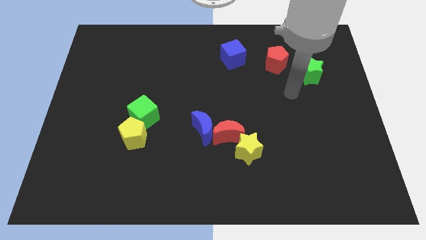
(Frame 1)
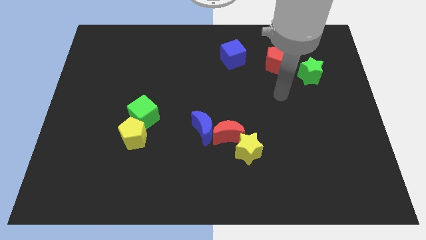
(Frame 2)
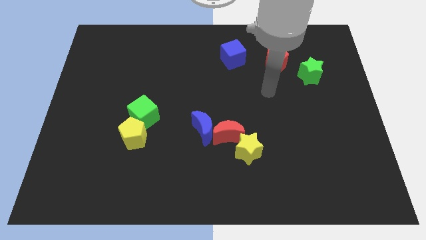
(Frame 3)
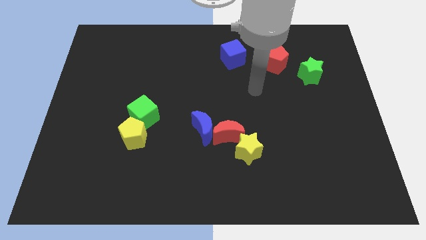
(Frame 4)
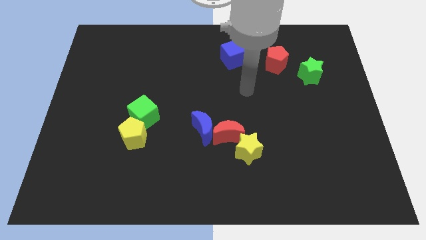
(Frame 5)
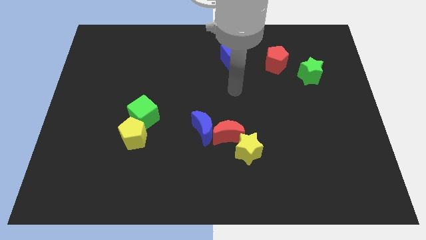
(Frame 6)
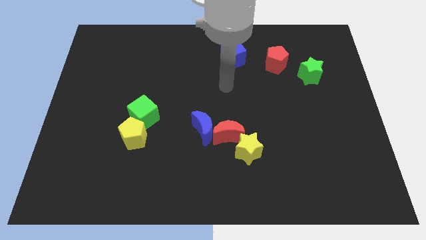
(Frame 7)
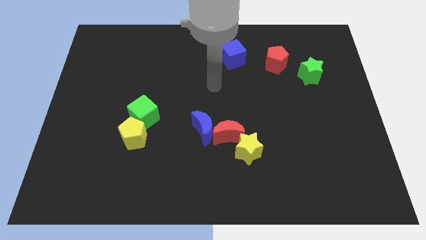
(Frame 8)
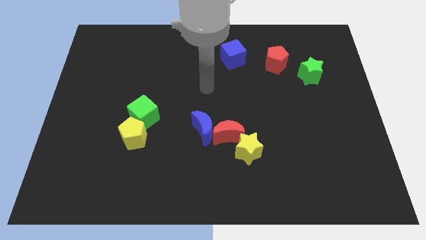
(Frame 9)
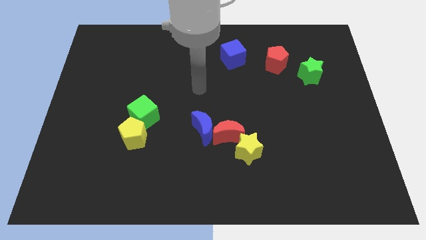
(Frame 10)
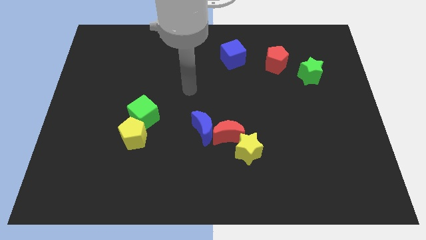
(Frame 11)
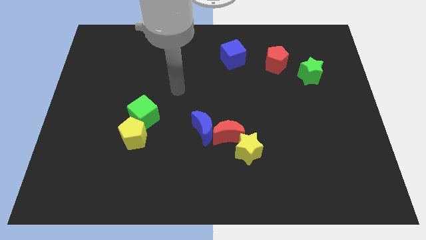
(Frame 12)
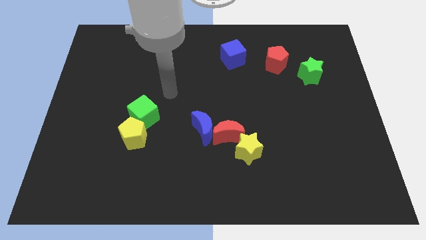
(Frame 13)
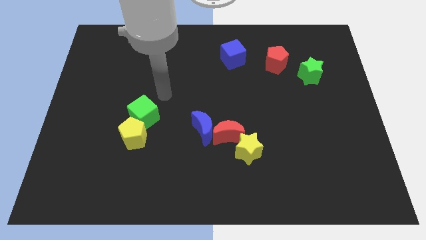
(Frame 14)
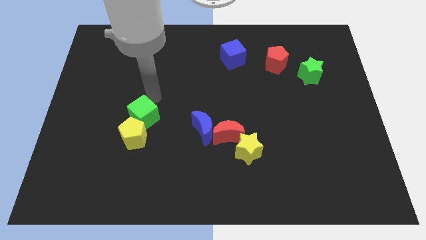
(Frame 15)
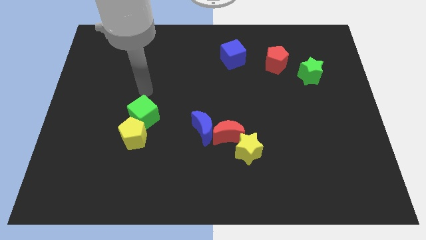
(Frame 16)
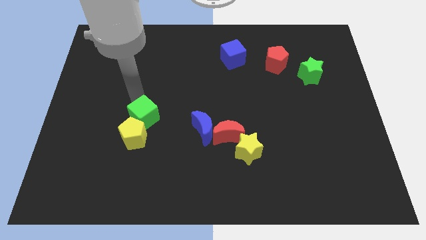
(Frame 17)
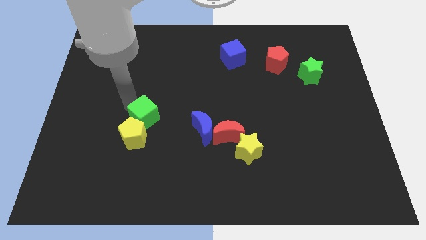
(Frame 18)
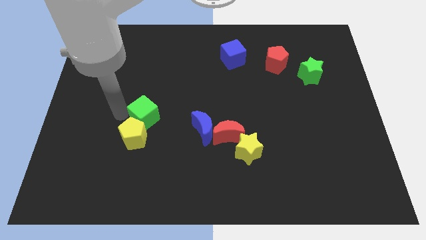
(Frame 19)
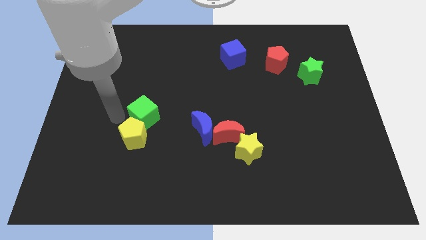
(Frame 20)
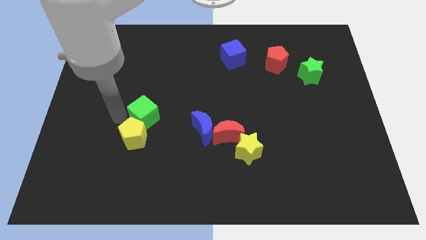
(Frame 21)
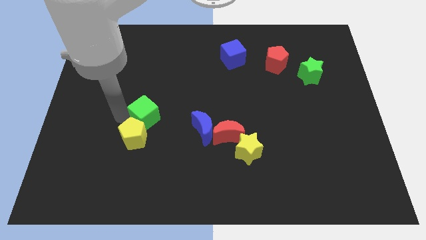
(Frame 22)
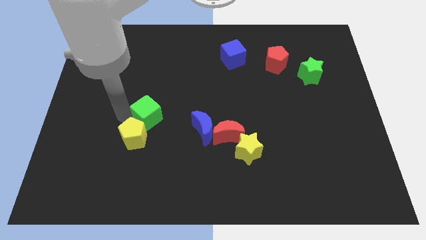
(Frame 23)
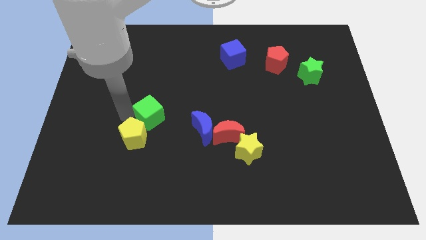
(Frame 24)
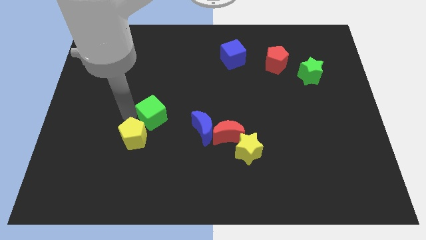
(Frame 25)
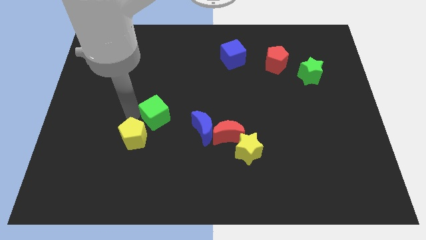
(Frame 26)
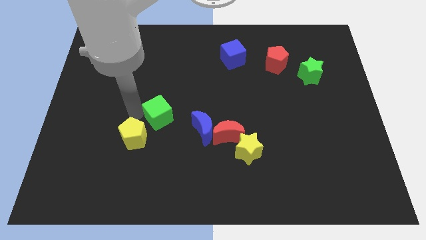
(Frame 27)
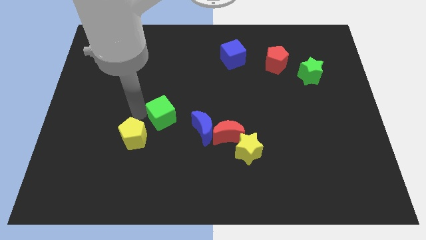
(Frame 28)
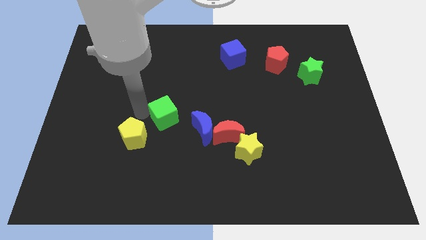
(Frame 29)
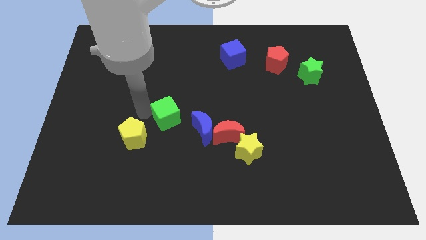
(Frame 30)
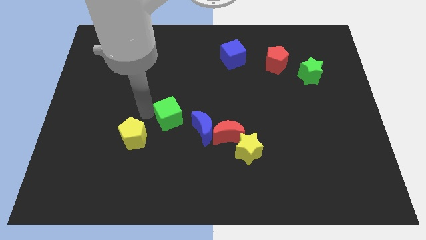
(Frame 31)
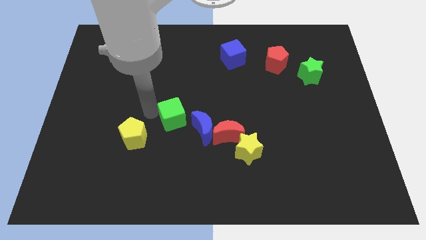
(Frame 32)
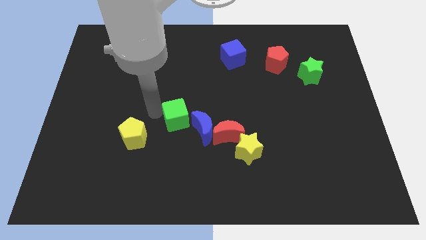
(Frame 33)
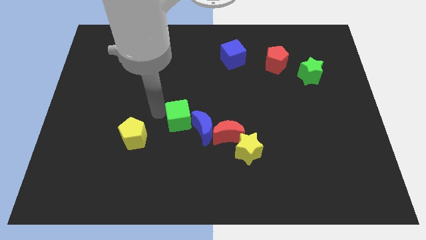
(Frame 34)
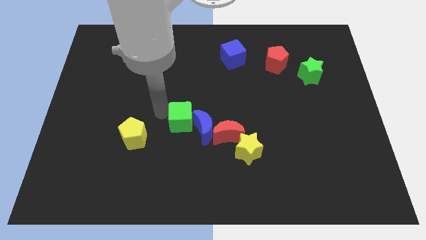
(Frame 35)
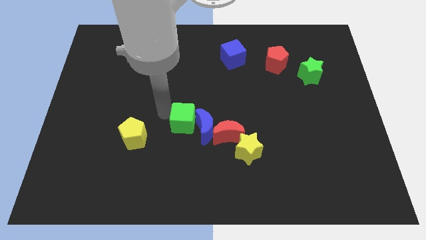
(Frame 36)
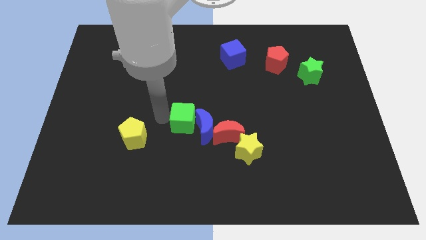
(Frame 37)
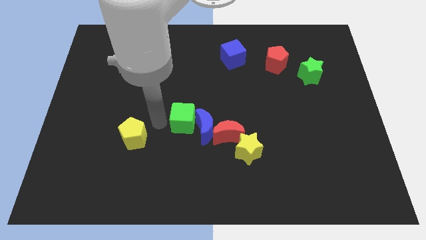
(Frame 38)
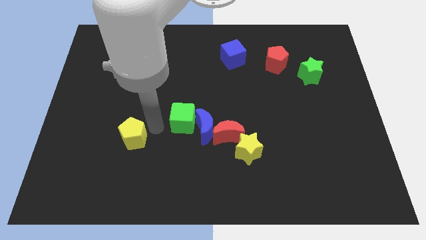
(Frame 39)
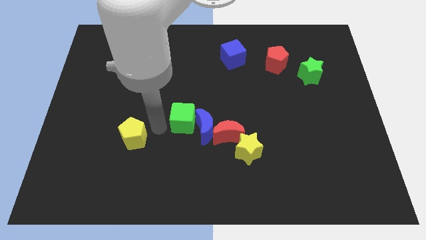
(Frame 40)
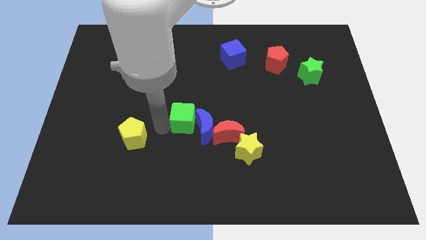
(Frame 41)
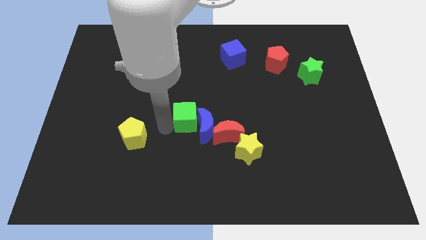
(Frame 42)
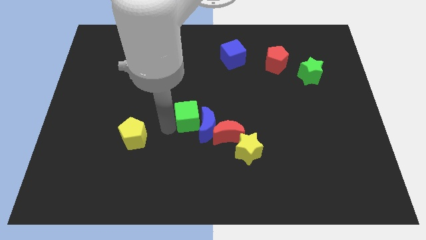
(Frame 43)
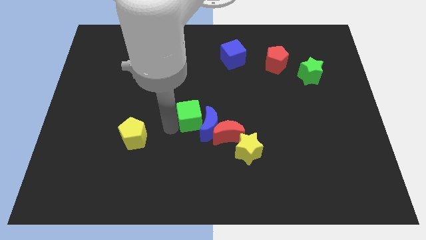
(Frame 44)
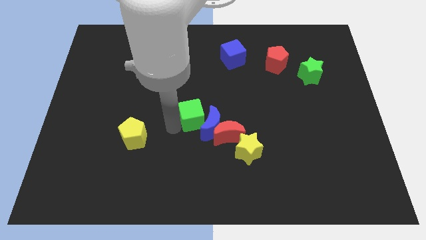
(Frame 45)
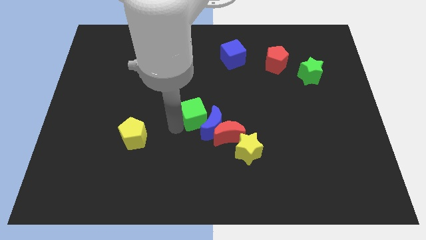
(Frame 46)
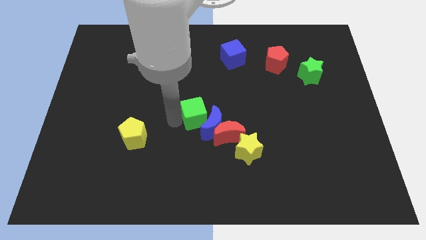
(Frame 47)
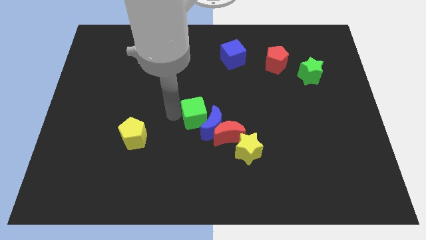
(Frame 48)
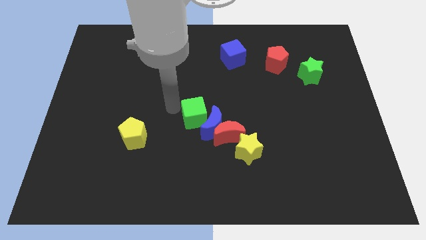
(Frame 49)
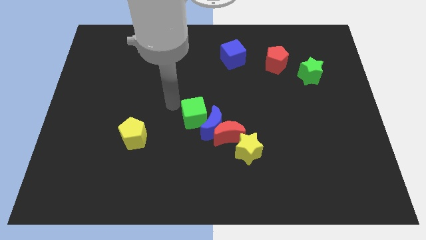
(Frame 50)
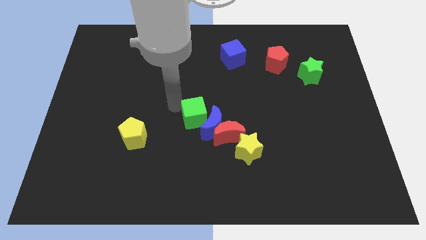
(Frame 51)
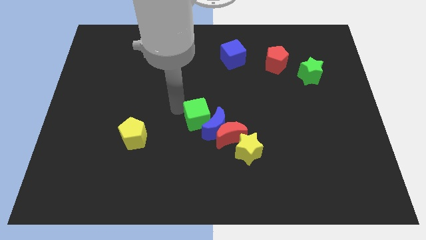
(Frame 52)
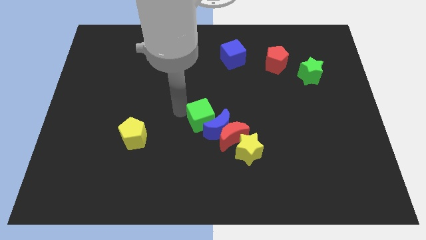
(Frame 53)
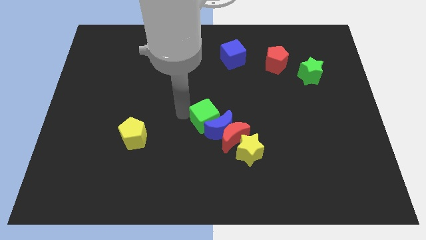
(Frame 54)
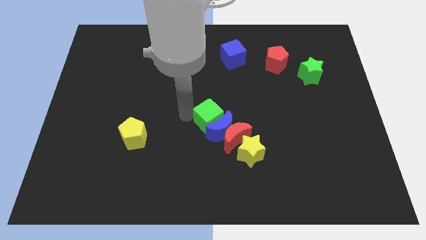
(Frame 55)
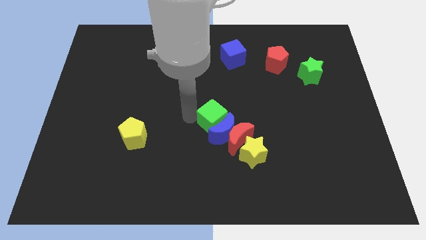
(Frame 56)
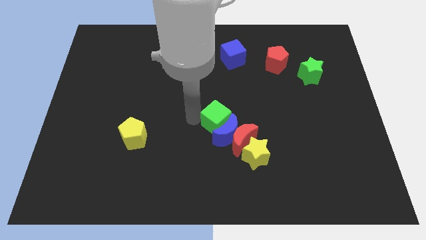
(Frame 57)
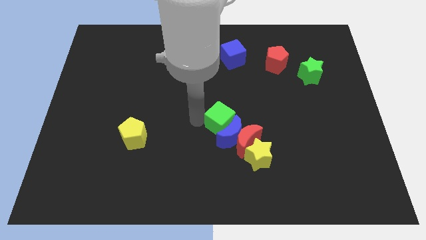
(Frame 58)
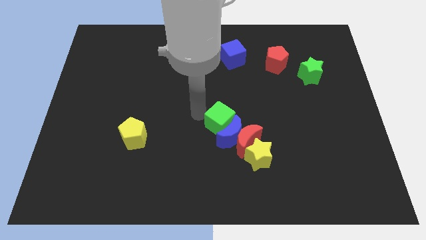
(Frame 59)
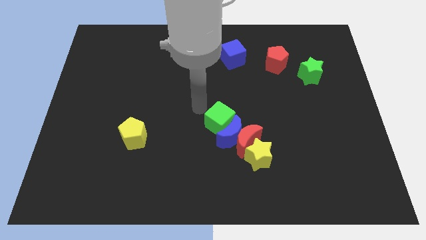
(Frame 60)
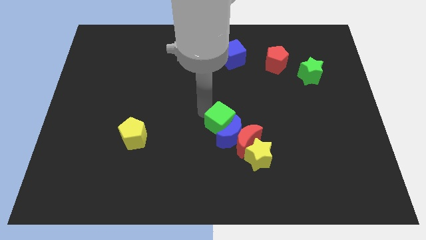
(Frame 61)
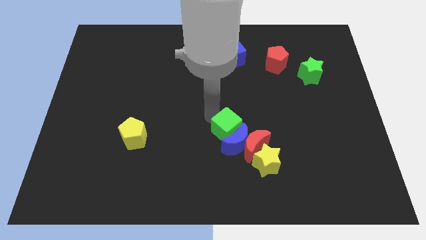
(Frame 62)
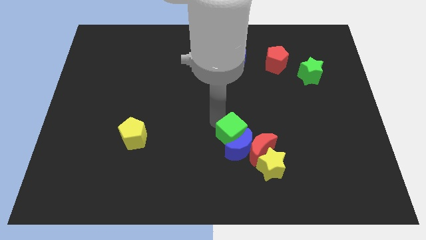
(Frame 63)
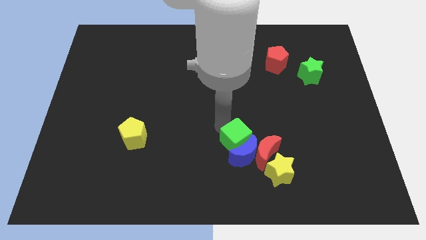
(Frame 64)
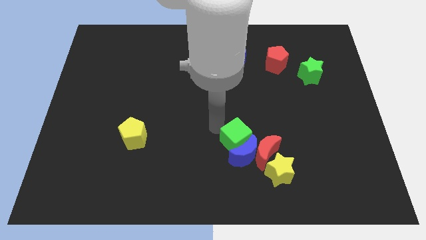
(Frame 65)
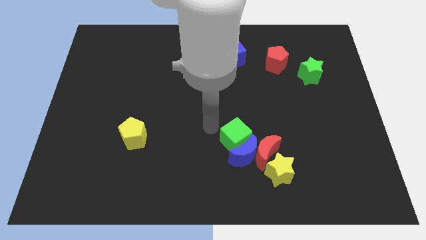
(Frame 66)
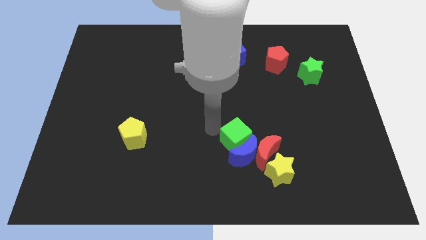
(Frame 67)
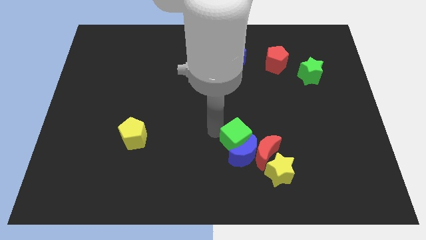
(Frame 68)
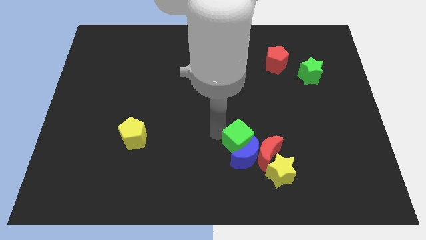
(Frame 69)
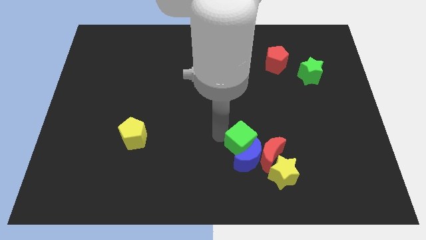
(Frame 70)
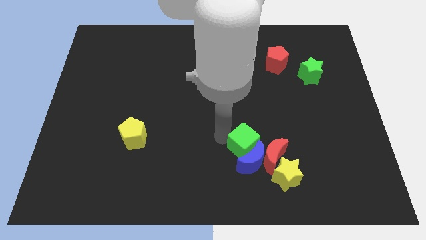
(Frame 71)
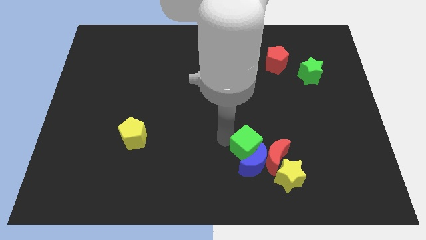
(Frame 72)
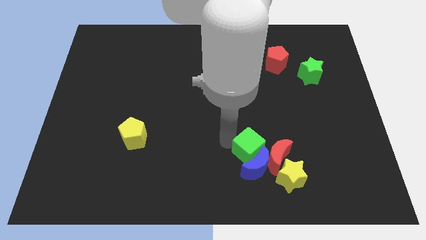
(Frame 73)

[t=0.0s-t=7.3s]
slide the green cube towards the red moon
